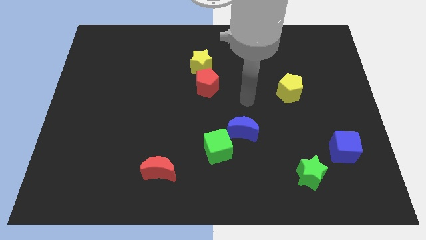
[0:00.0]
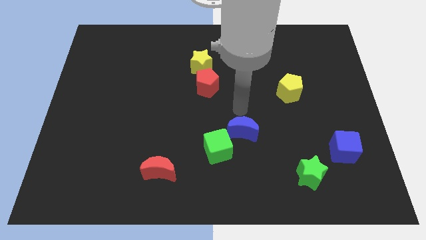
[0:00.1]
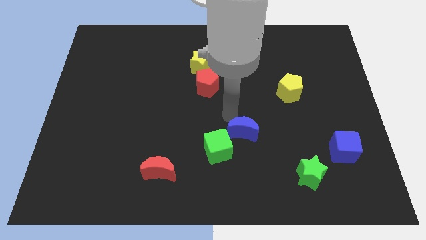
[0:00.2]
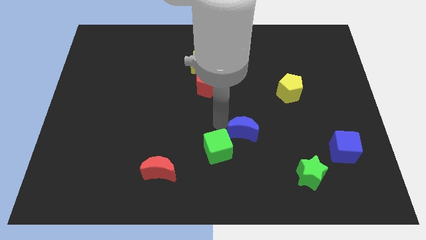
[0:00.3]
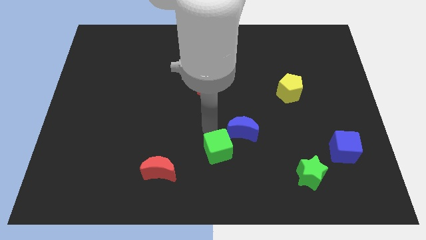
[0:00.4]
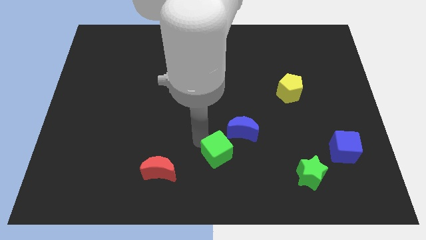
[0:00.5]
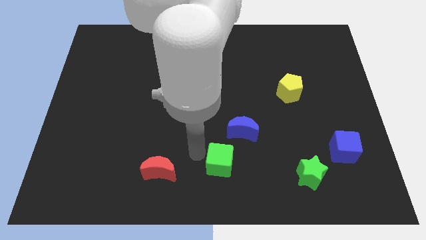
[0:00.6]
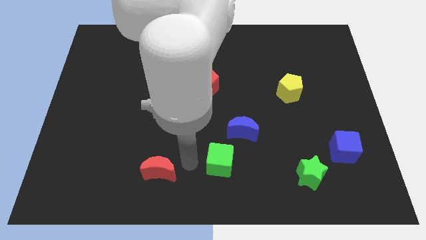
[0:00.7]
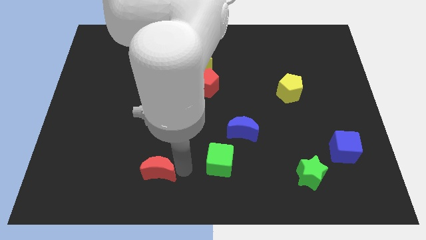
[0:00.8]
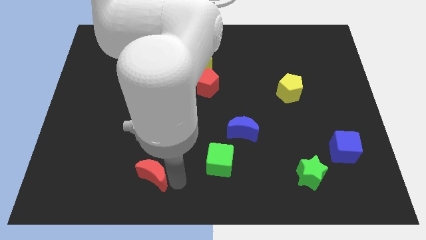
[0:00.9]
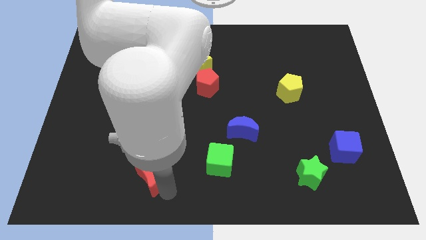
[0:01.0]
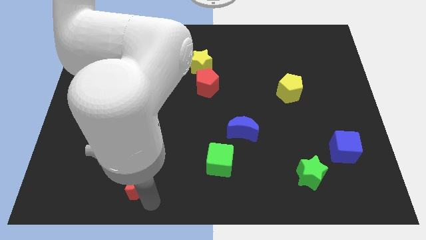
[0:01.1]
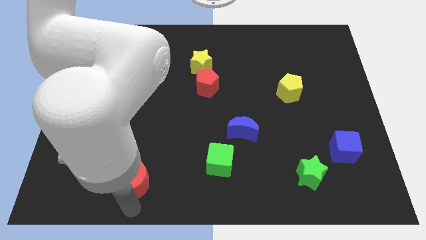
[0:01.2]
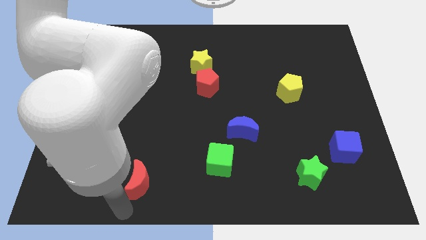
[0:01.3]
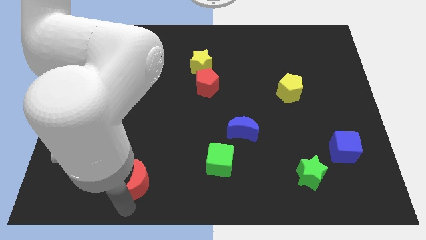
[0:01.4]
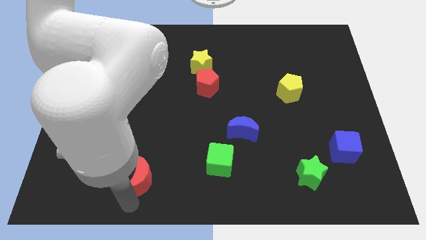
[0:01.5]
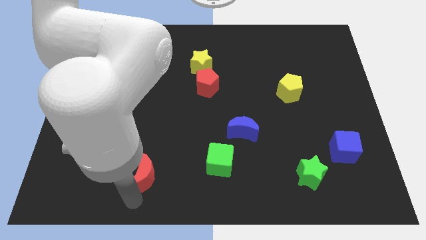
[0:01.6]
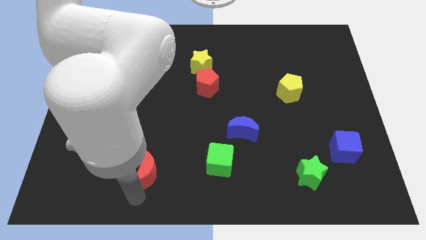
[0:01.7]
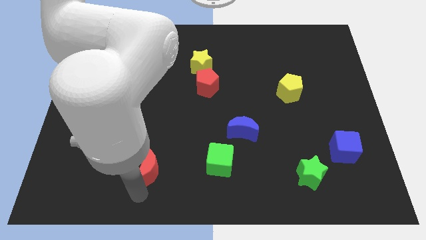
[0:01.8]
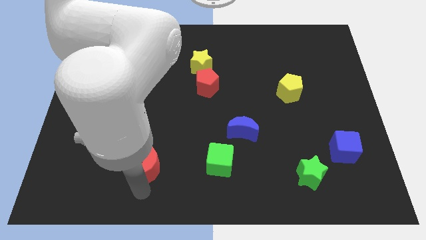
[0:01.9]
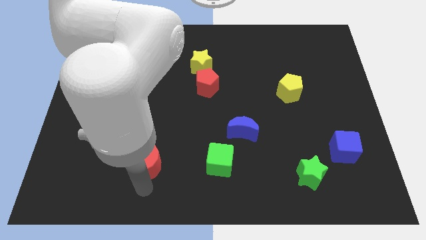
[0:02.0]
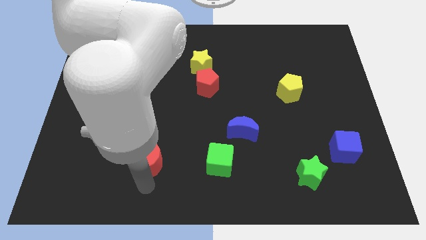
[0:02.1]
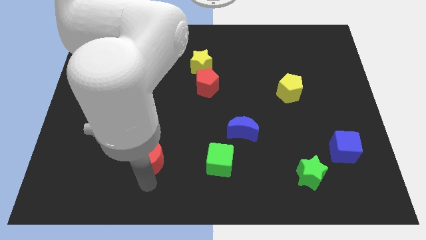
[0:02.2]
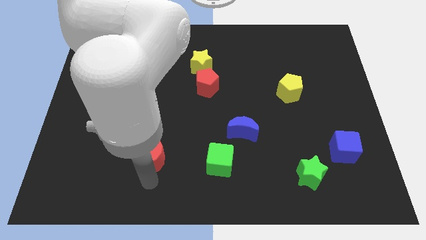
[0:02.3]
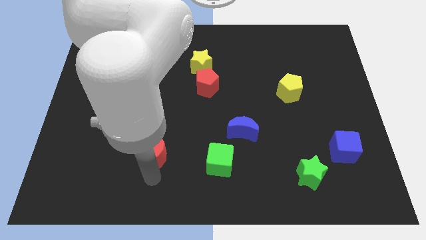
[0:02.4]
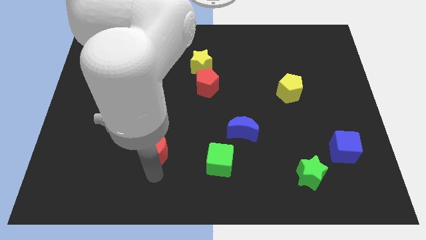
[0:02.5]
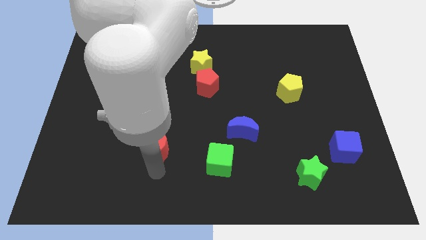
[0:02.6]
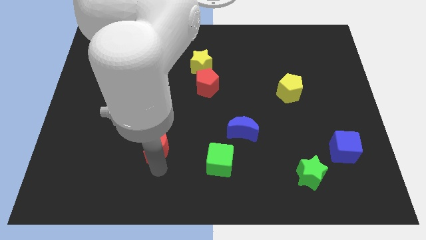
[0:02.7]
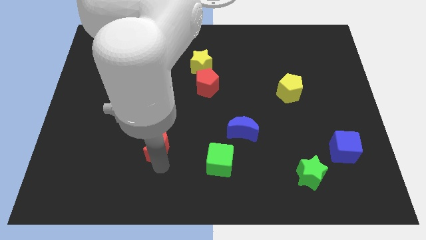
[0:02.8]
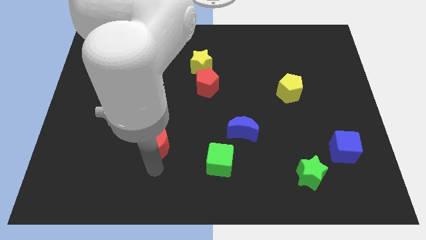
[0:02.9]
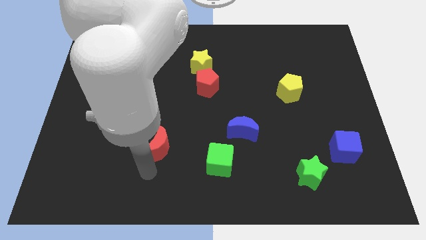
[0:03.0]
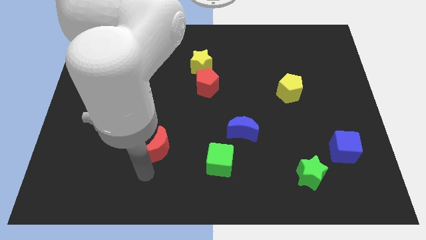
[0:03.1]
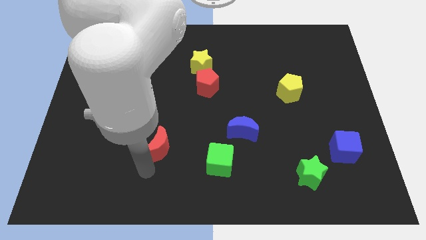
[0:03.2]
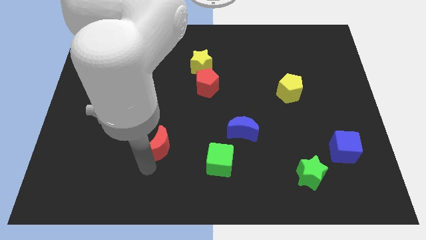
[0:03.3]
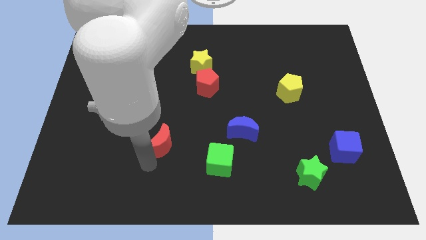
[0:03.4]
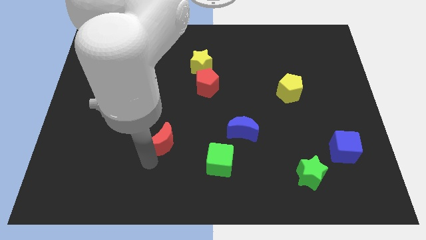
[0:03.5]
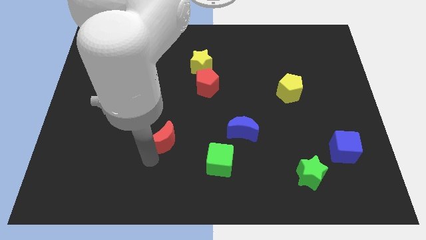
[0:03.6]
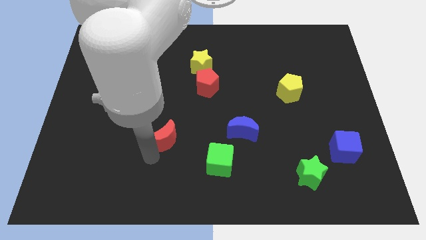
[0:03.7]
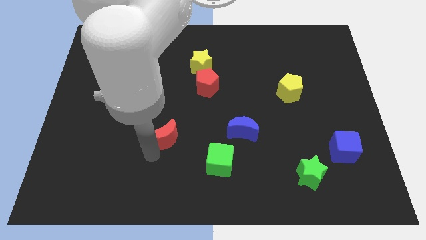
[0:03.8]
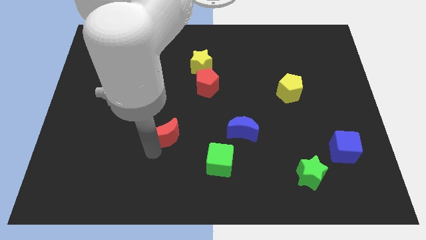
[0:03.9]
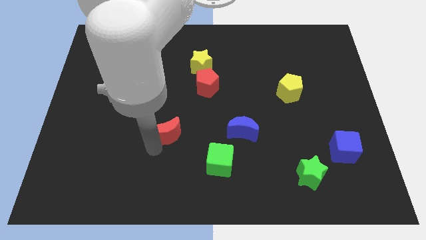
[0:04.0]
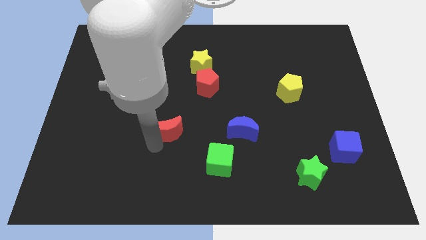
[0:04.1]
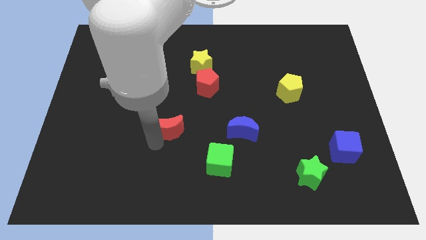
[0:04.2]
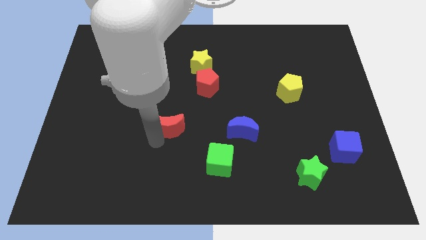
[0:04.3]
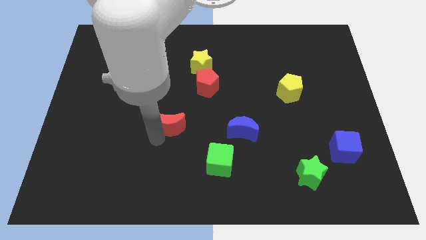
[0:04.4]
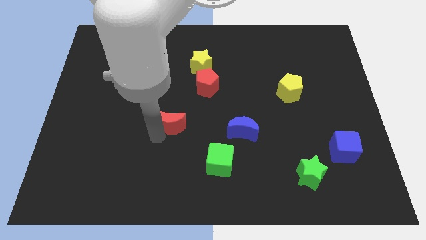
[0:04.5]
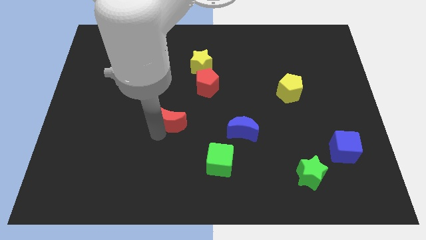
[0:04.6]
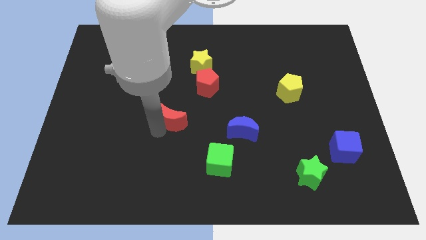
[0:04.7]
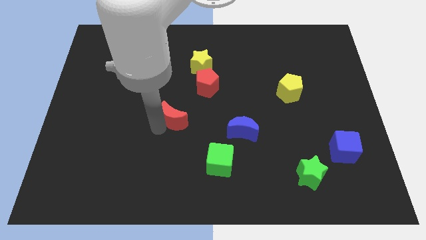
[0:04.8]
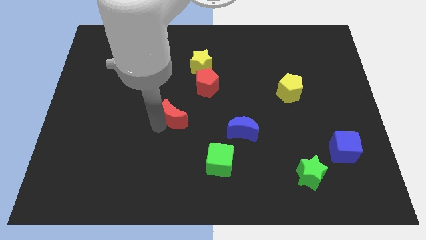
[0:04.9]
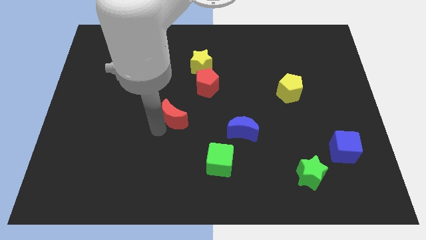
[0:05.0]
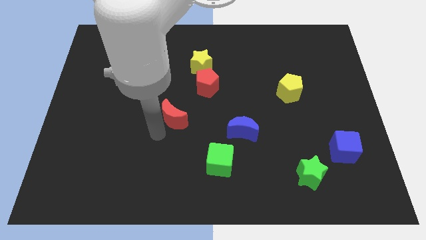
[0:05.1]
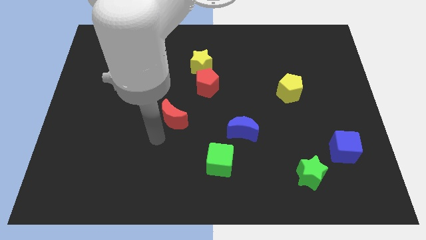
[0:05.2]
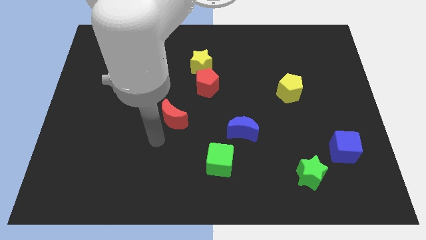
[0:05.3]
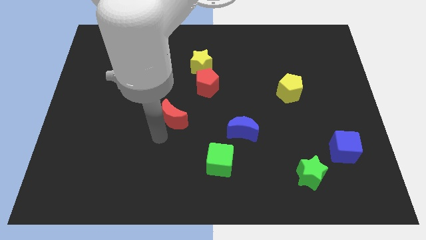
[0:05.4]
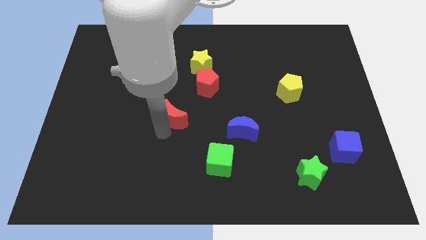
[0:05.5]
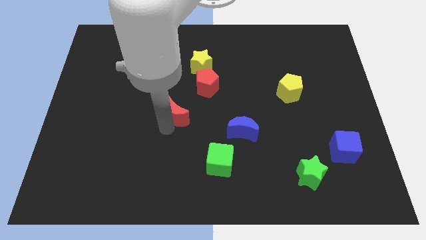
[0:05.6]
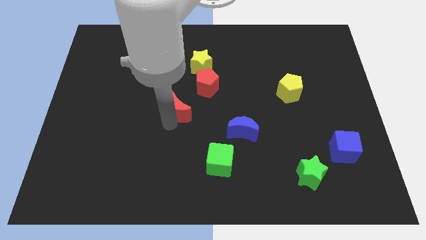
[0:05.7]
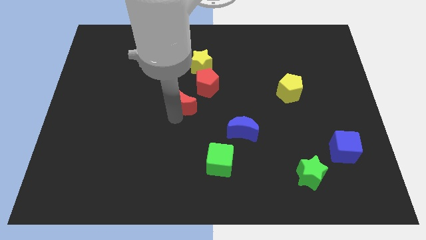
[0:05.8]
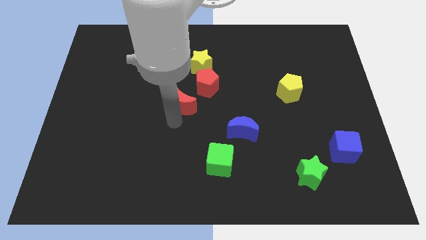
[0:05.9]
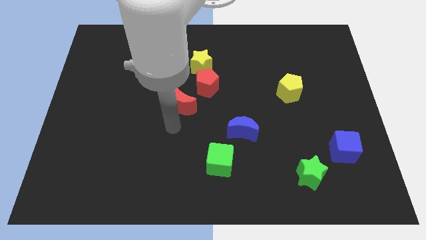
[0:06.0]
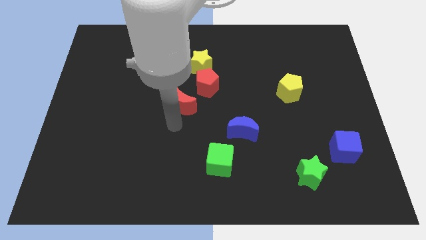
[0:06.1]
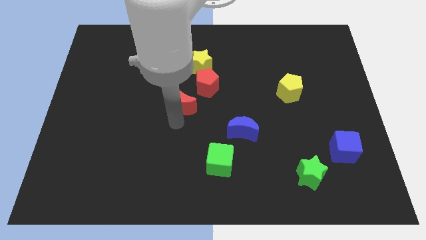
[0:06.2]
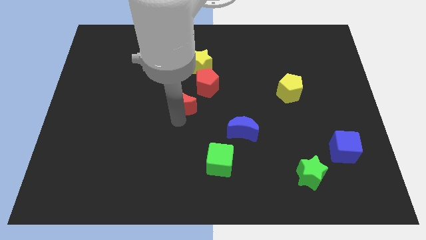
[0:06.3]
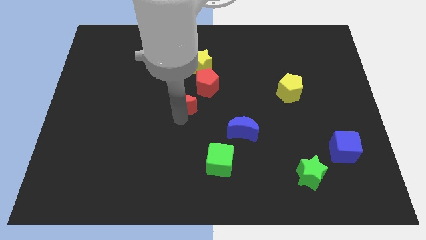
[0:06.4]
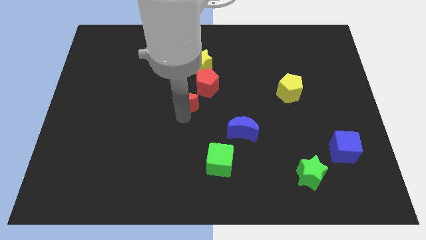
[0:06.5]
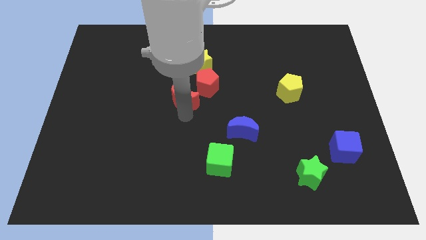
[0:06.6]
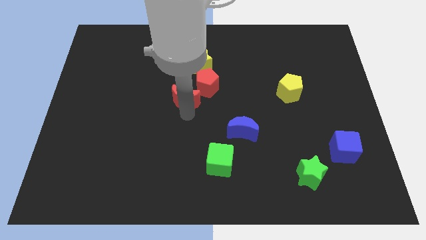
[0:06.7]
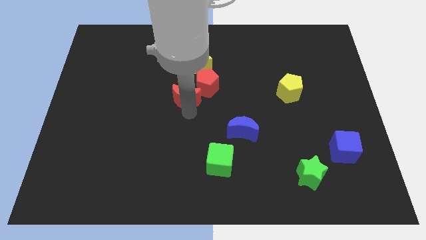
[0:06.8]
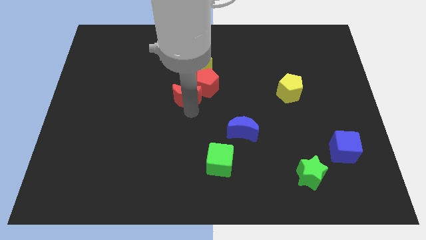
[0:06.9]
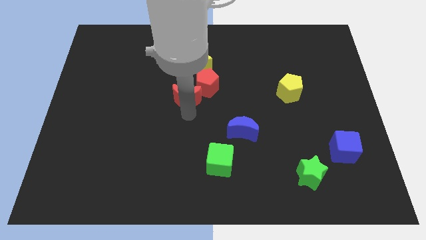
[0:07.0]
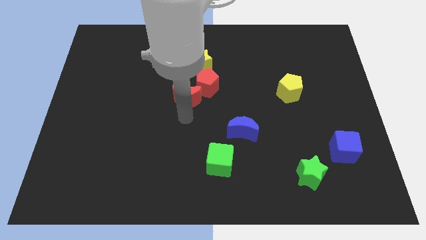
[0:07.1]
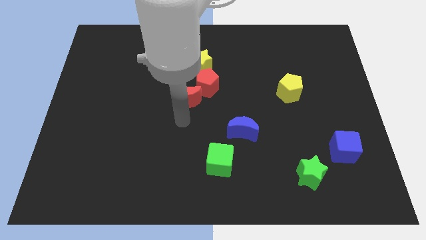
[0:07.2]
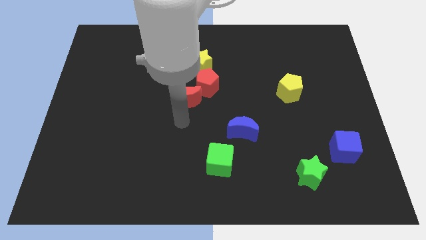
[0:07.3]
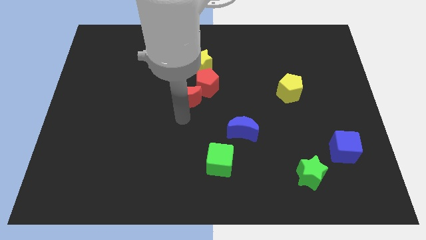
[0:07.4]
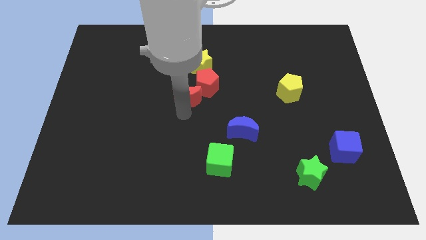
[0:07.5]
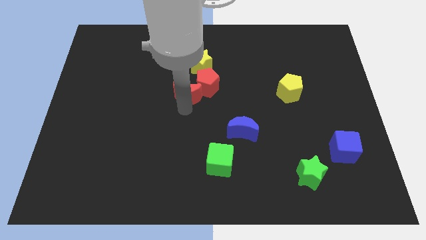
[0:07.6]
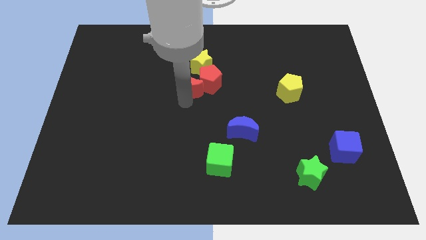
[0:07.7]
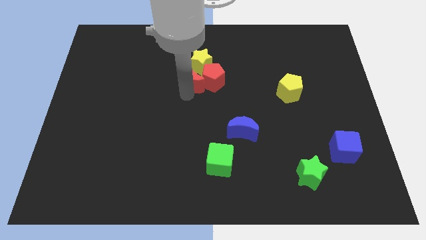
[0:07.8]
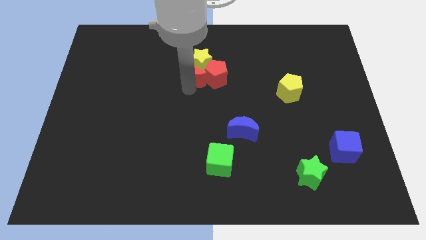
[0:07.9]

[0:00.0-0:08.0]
move the red moon next to the yellow star
